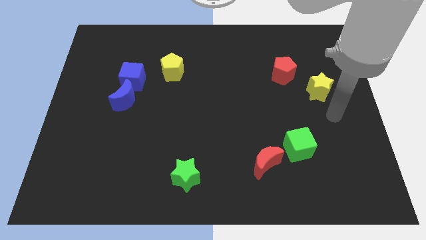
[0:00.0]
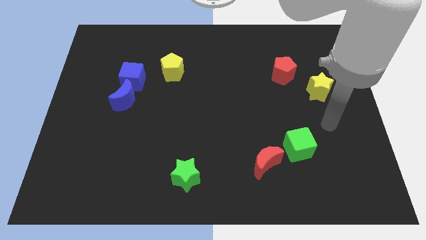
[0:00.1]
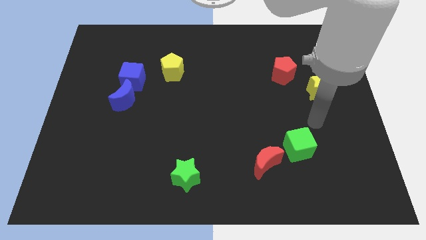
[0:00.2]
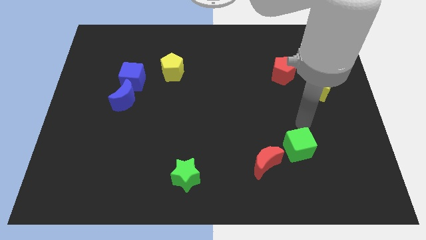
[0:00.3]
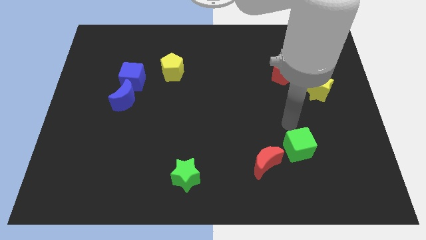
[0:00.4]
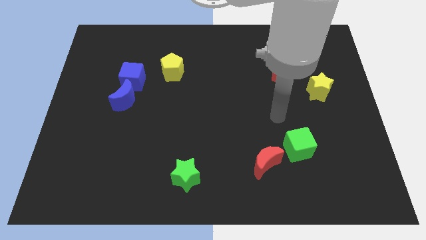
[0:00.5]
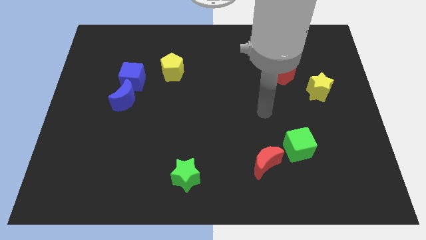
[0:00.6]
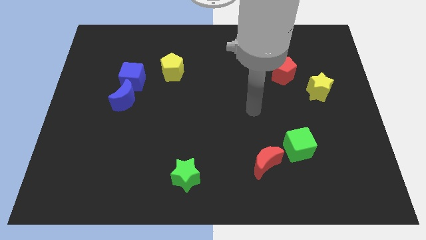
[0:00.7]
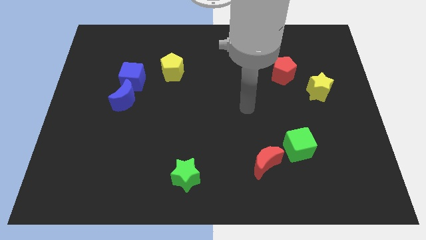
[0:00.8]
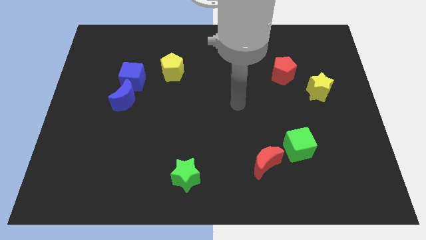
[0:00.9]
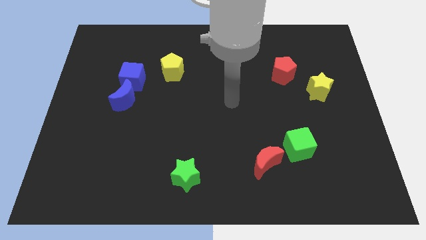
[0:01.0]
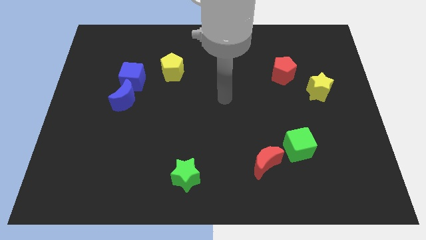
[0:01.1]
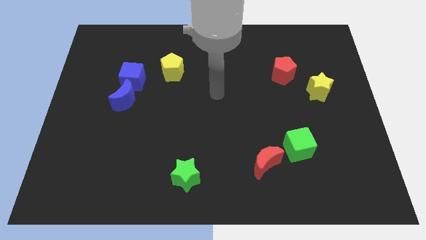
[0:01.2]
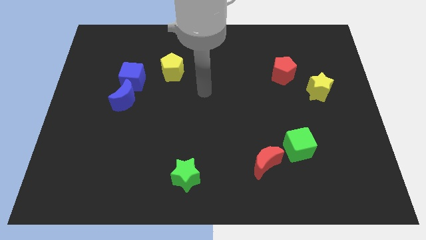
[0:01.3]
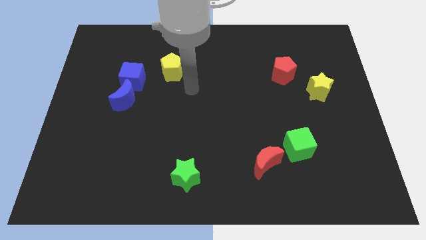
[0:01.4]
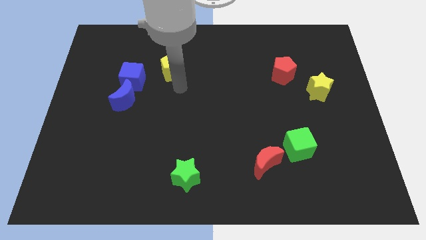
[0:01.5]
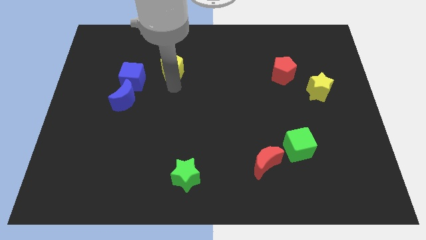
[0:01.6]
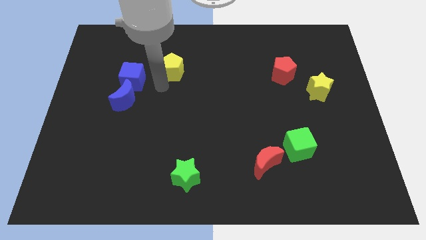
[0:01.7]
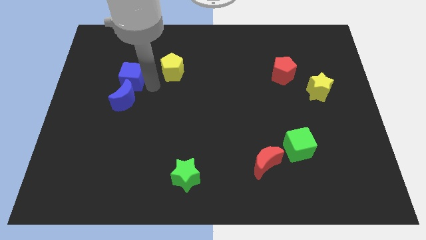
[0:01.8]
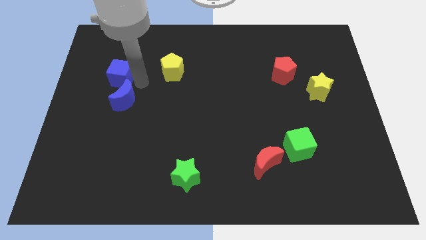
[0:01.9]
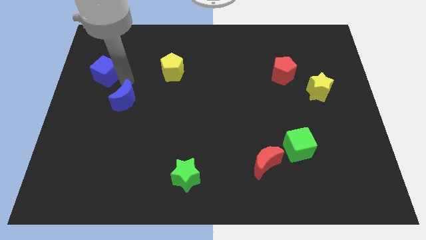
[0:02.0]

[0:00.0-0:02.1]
move the blue moon away from the blue cube

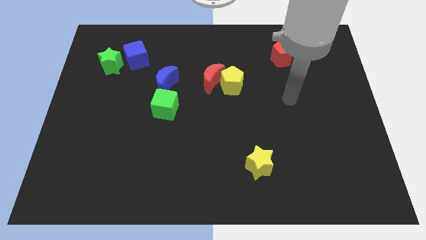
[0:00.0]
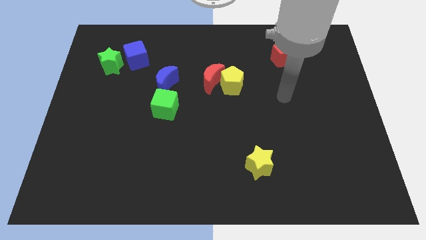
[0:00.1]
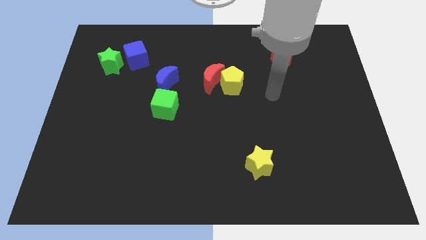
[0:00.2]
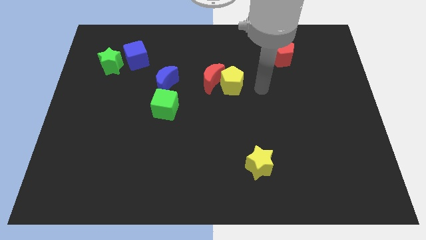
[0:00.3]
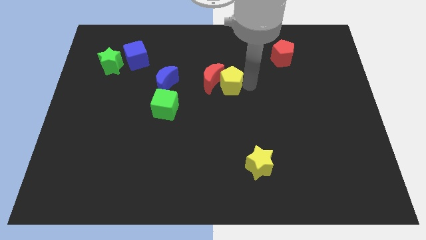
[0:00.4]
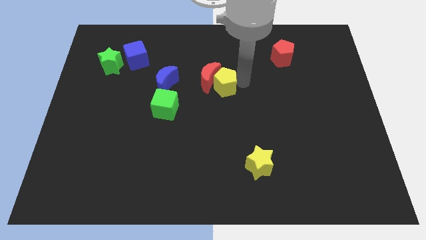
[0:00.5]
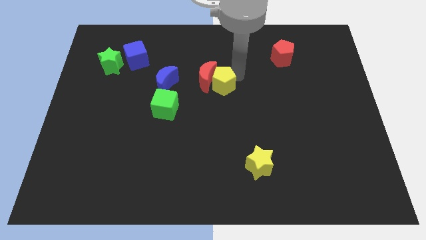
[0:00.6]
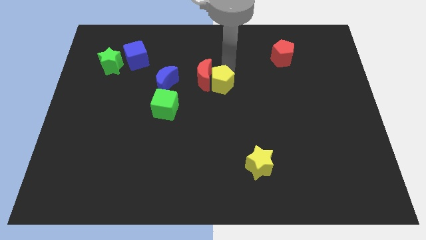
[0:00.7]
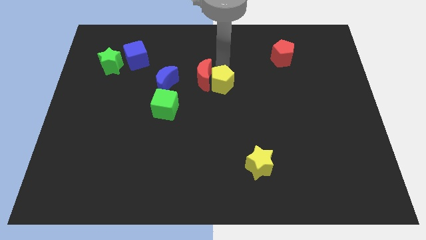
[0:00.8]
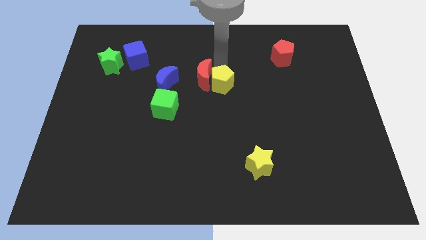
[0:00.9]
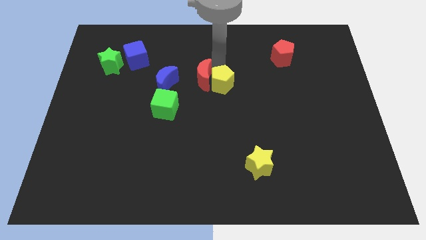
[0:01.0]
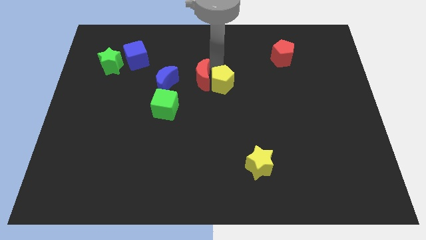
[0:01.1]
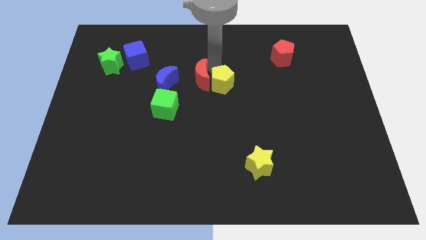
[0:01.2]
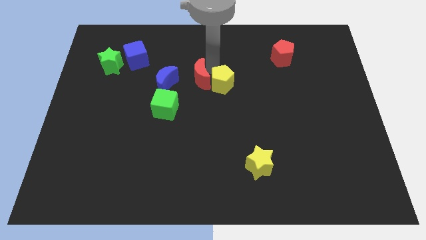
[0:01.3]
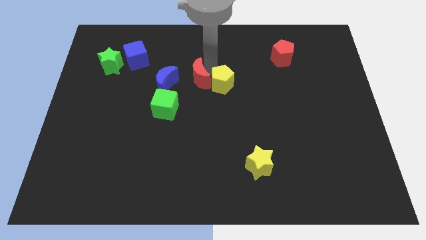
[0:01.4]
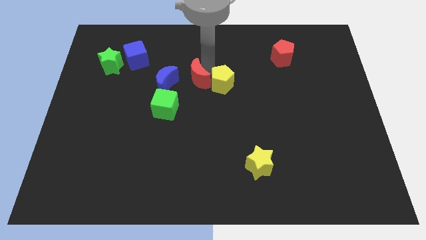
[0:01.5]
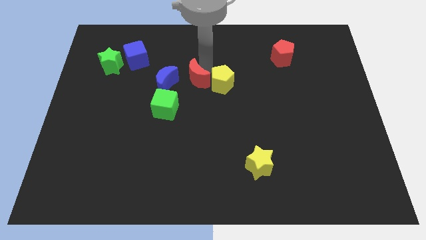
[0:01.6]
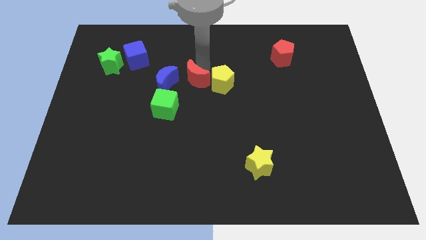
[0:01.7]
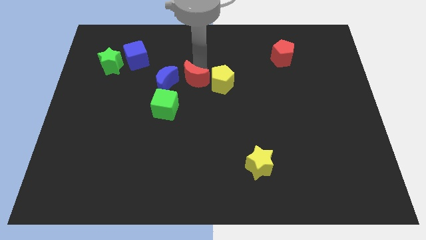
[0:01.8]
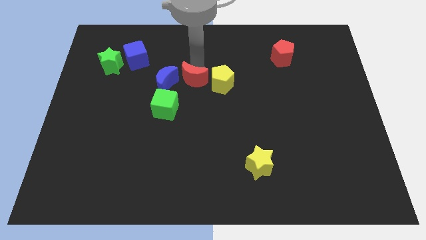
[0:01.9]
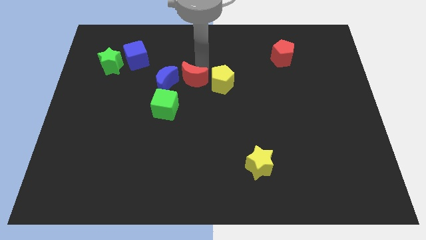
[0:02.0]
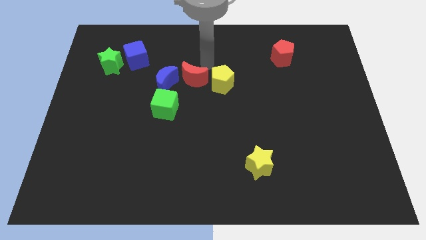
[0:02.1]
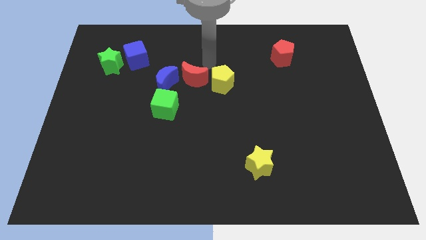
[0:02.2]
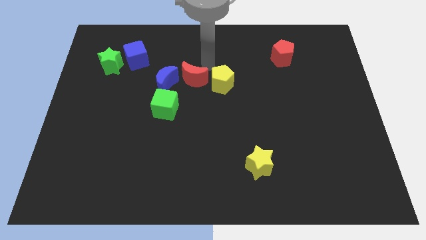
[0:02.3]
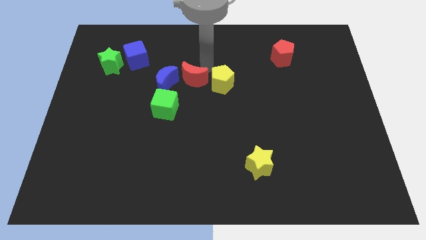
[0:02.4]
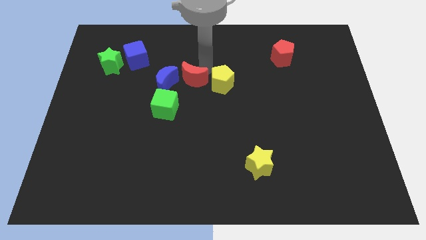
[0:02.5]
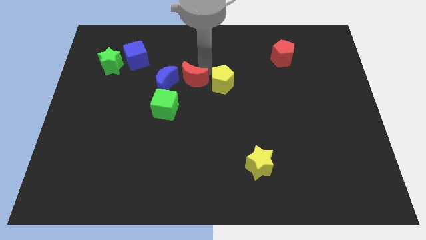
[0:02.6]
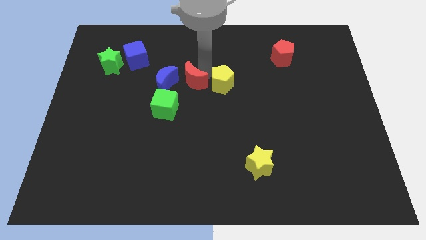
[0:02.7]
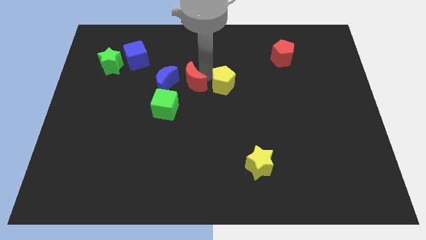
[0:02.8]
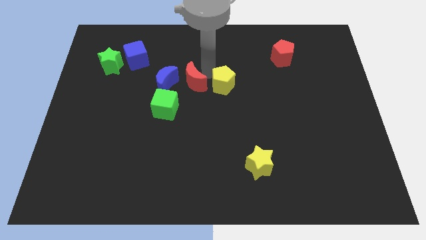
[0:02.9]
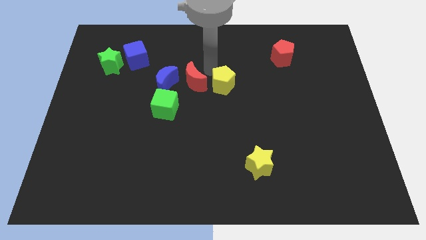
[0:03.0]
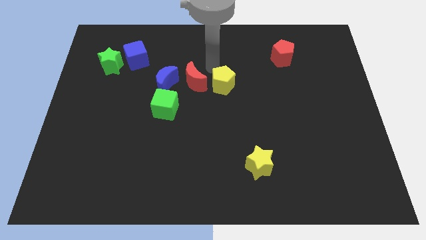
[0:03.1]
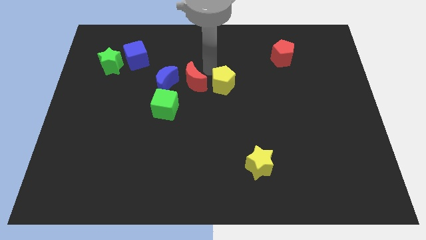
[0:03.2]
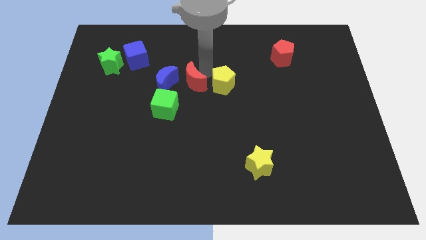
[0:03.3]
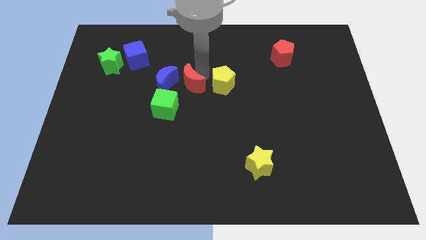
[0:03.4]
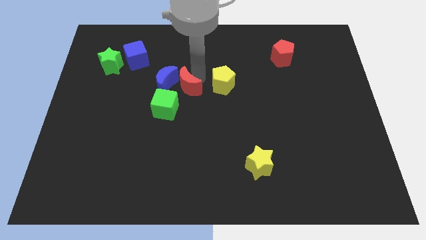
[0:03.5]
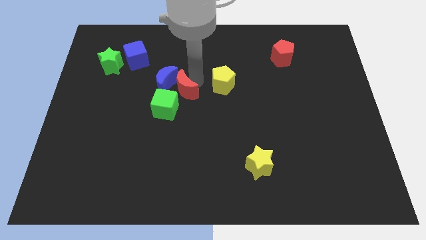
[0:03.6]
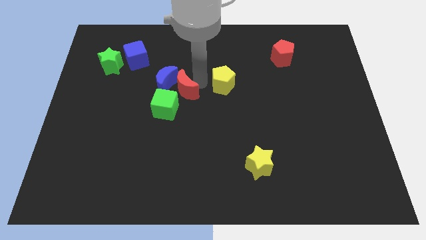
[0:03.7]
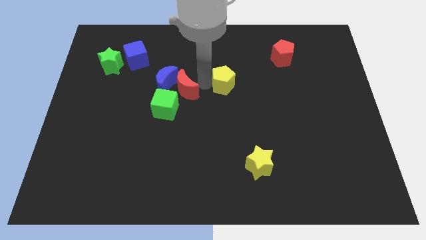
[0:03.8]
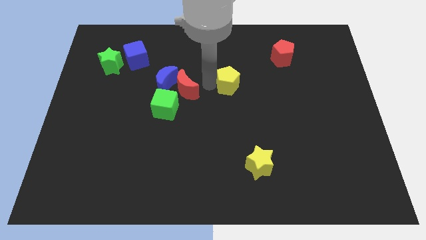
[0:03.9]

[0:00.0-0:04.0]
pull the red moon apart from the yellow pentagon

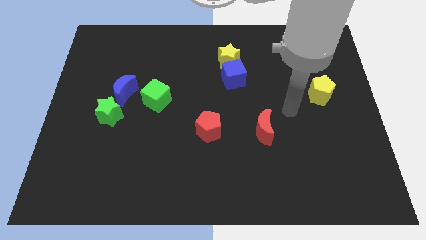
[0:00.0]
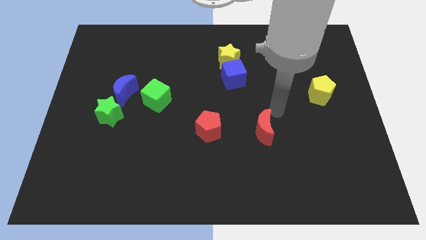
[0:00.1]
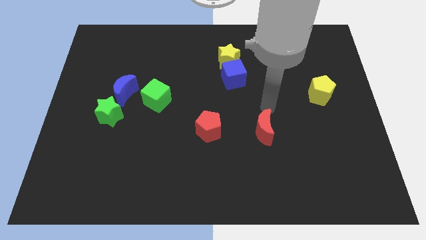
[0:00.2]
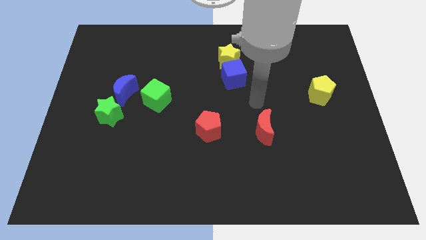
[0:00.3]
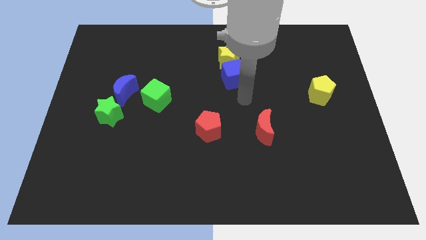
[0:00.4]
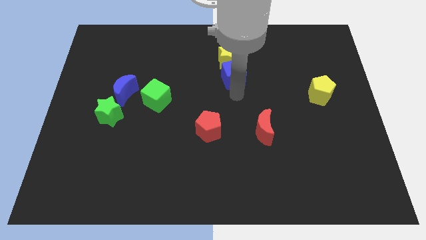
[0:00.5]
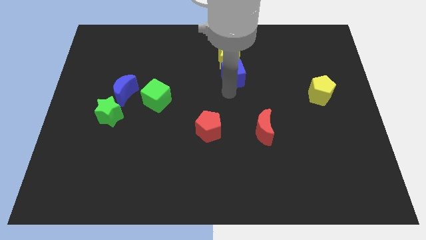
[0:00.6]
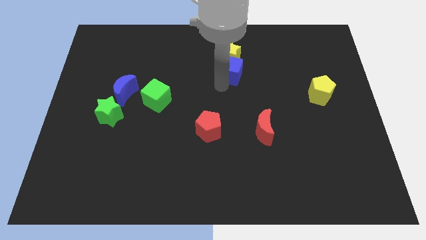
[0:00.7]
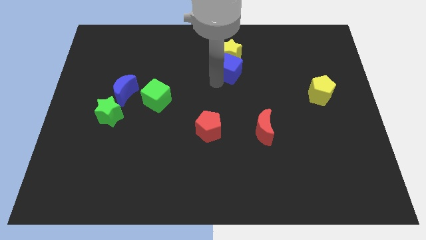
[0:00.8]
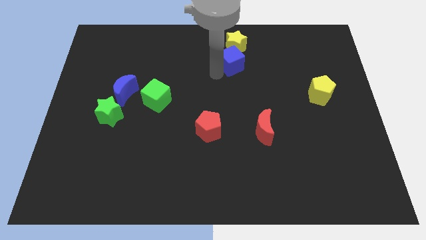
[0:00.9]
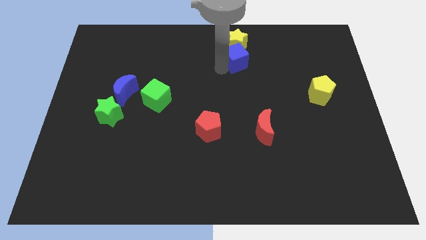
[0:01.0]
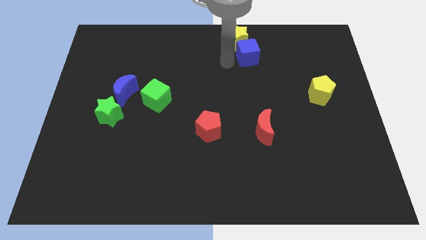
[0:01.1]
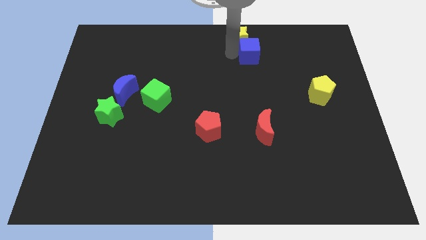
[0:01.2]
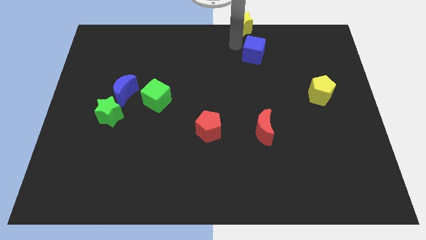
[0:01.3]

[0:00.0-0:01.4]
pull the blue cube apart from the yellow star

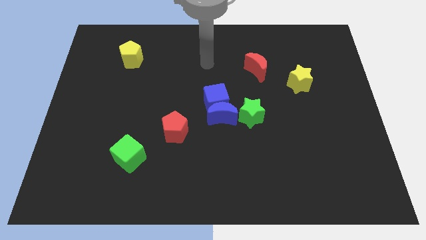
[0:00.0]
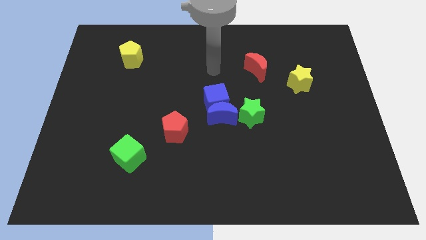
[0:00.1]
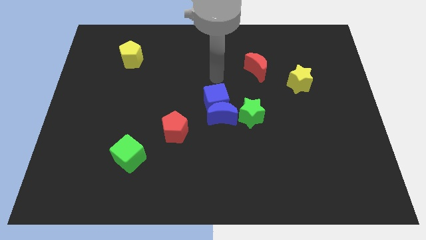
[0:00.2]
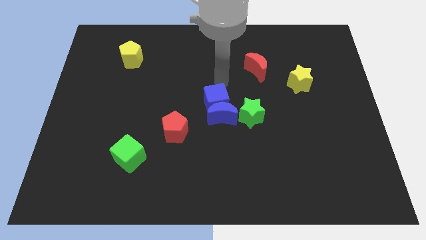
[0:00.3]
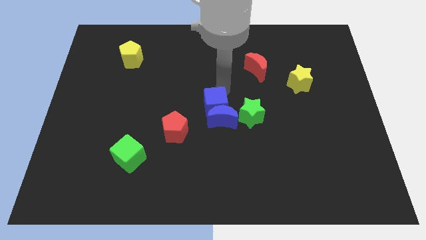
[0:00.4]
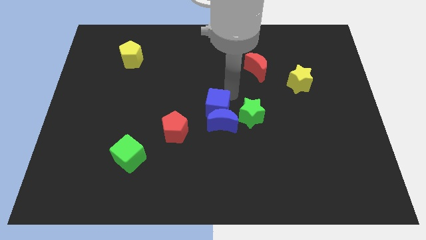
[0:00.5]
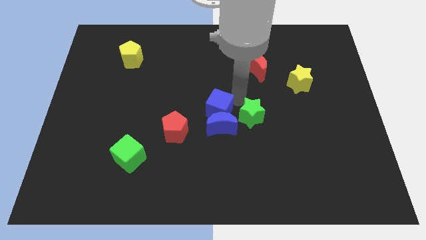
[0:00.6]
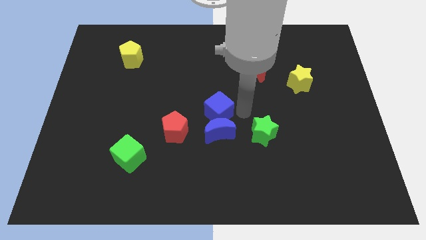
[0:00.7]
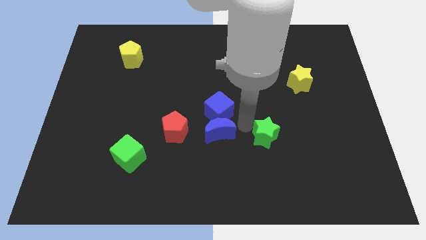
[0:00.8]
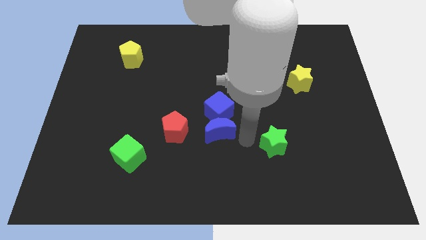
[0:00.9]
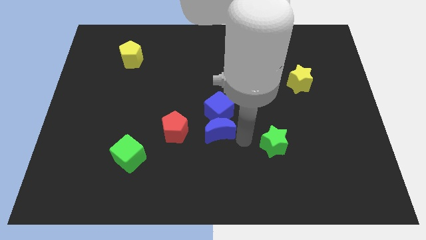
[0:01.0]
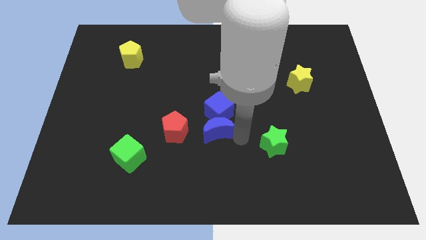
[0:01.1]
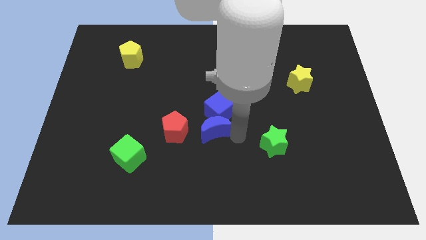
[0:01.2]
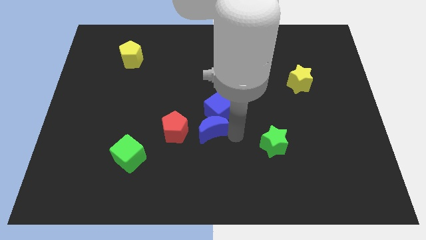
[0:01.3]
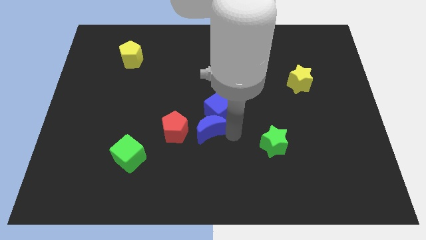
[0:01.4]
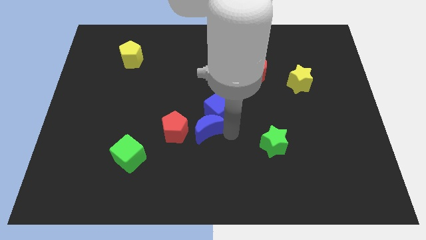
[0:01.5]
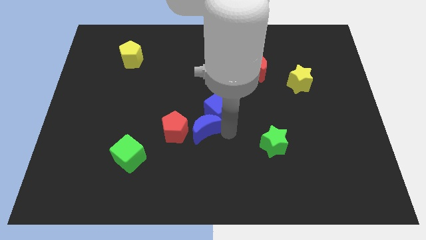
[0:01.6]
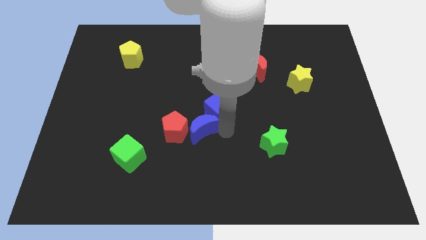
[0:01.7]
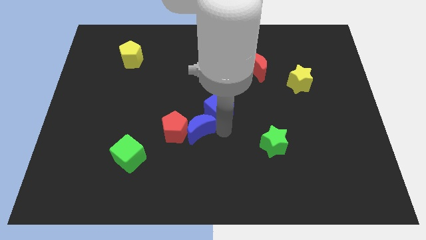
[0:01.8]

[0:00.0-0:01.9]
separate the blue moon from the blue cube and green star

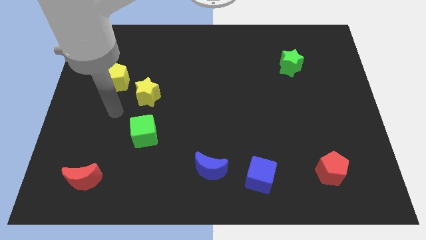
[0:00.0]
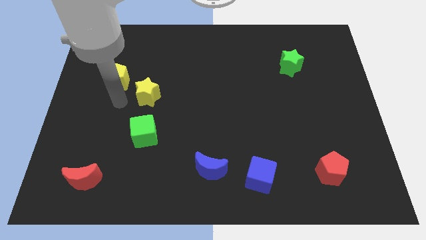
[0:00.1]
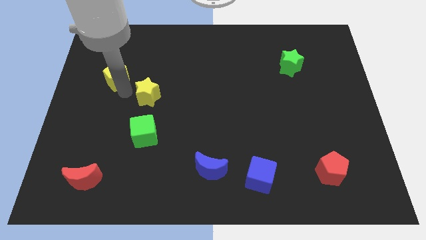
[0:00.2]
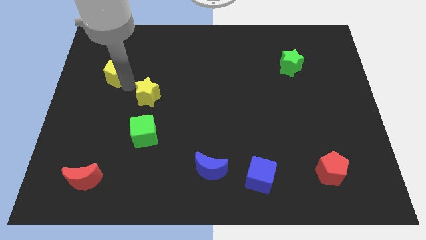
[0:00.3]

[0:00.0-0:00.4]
move the yellow star away from the yellow pentagon
